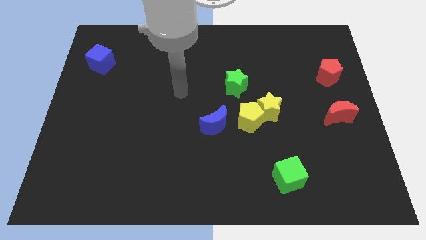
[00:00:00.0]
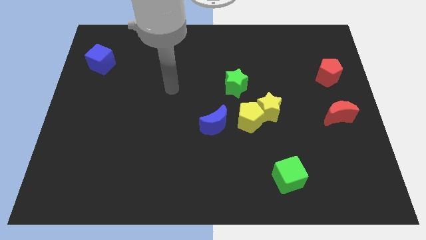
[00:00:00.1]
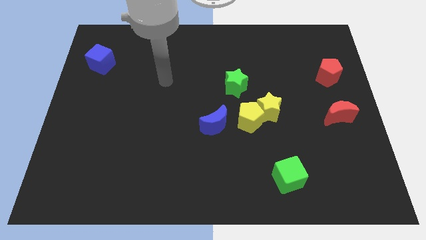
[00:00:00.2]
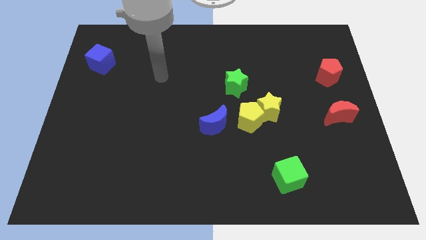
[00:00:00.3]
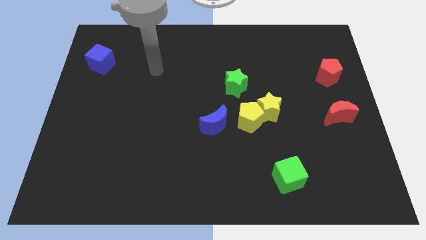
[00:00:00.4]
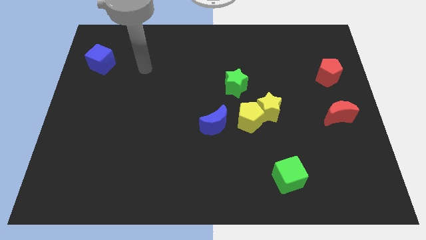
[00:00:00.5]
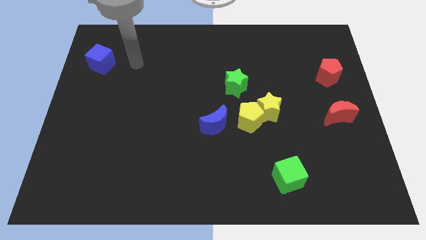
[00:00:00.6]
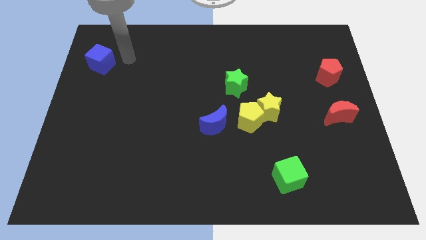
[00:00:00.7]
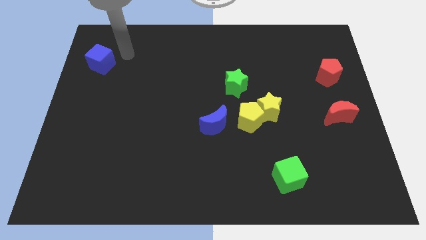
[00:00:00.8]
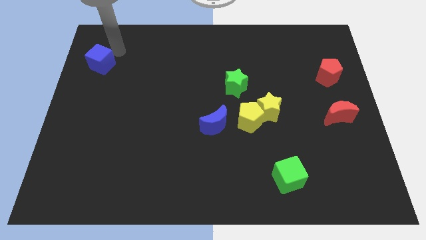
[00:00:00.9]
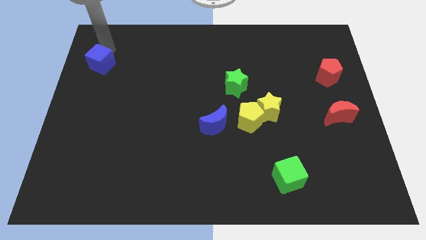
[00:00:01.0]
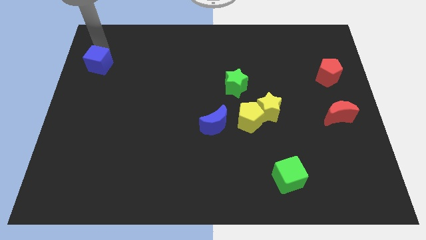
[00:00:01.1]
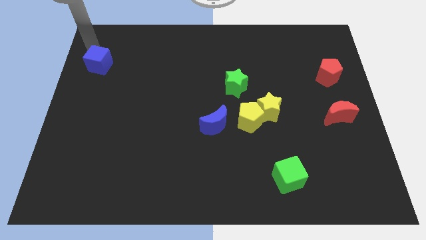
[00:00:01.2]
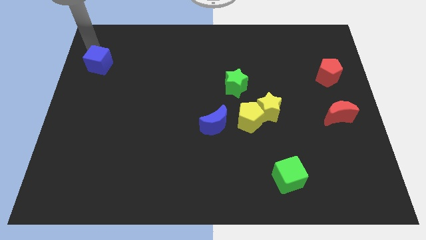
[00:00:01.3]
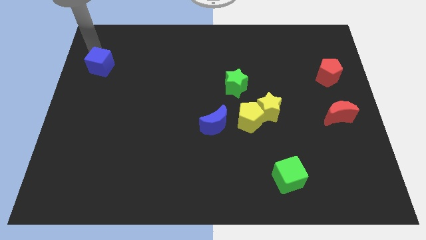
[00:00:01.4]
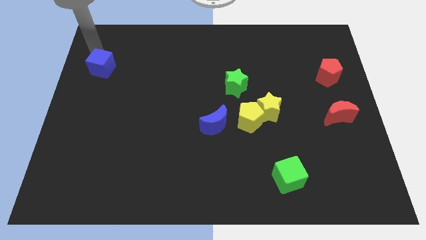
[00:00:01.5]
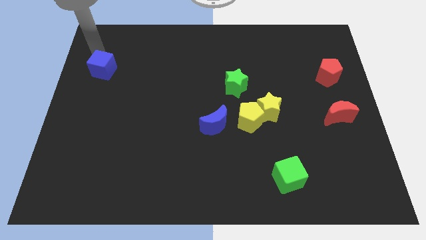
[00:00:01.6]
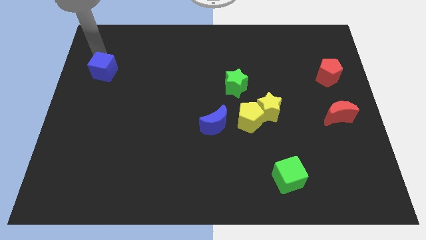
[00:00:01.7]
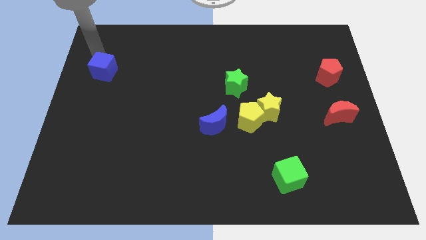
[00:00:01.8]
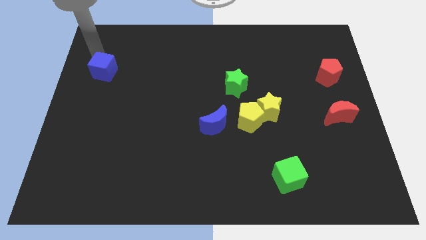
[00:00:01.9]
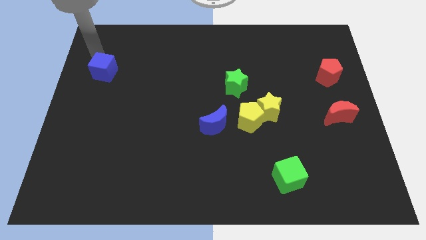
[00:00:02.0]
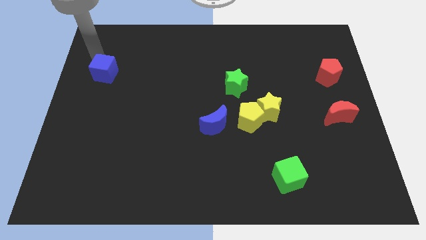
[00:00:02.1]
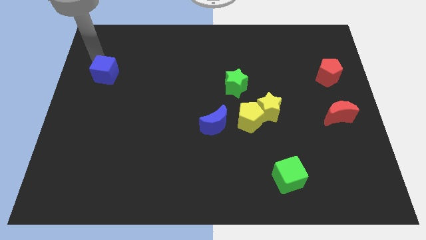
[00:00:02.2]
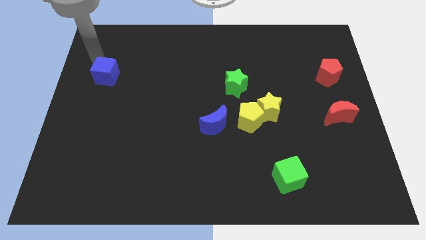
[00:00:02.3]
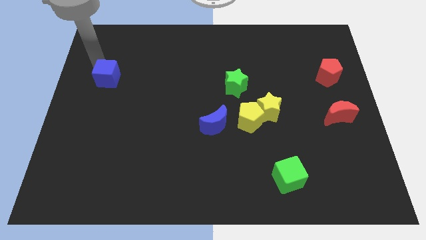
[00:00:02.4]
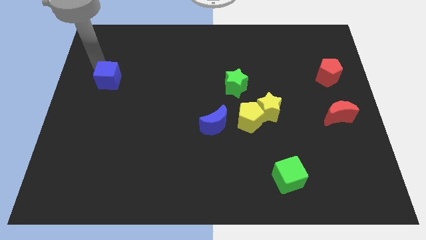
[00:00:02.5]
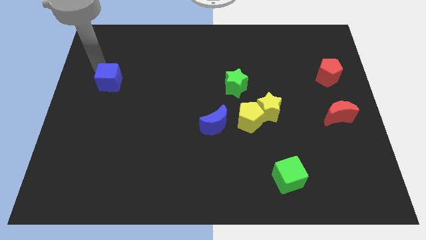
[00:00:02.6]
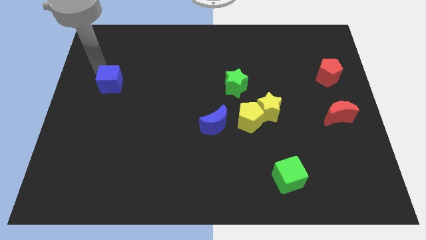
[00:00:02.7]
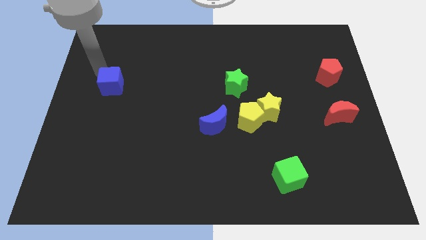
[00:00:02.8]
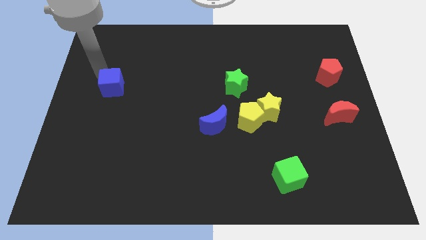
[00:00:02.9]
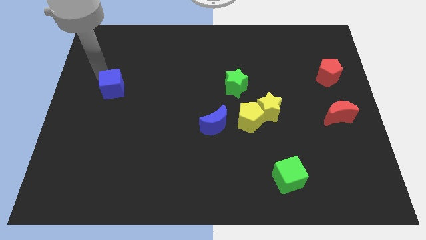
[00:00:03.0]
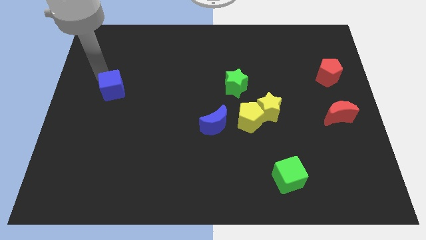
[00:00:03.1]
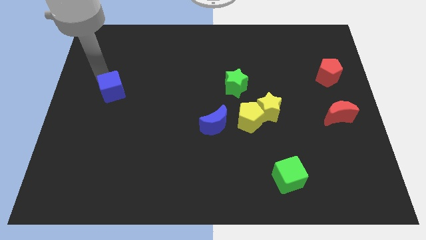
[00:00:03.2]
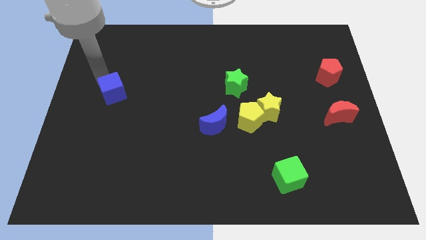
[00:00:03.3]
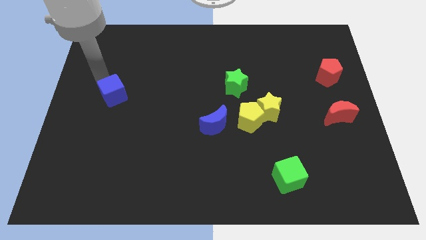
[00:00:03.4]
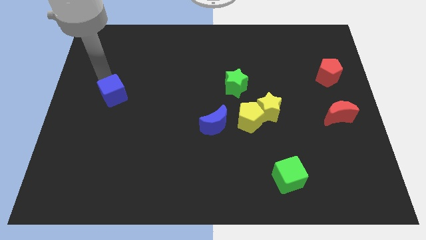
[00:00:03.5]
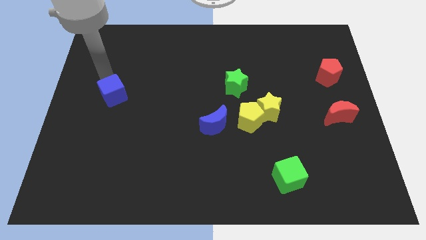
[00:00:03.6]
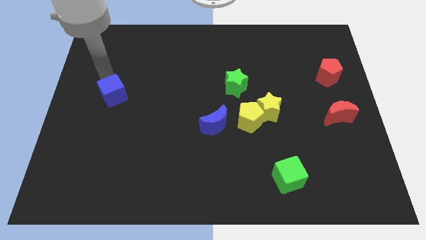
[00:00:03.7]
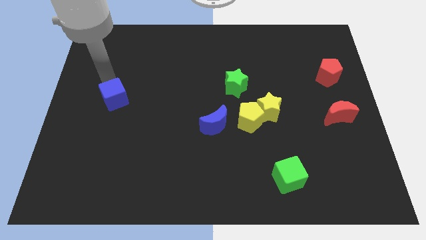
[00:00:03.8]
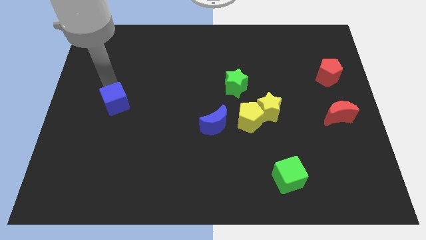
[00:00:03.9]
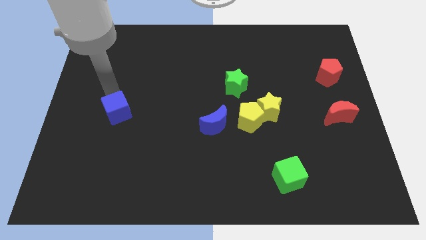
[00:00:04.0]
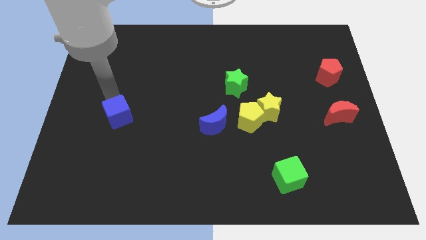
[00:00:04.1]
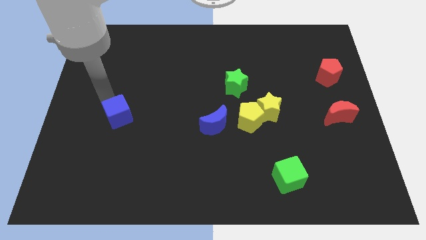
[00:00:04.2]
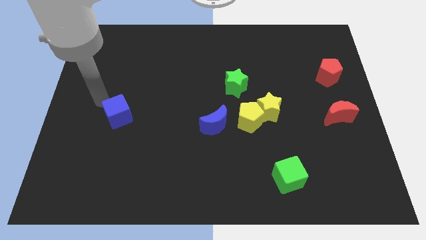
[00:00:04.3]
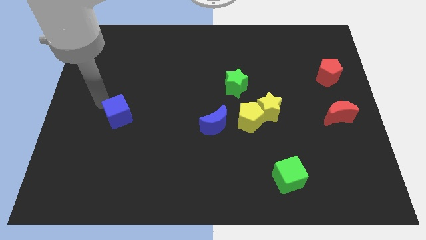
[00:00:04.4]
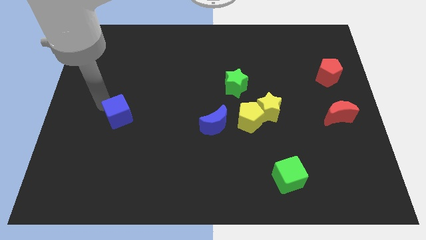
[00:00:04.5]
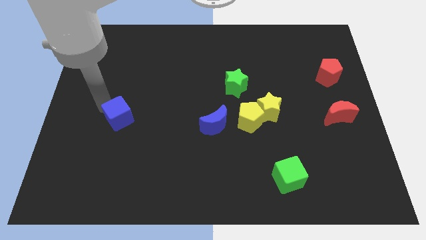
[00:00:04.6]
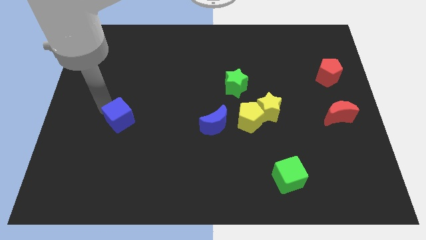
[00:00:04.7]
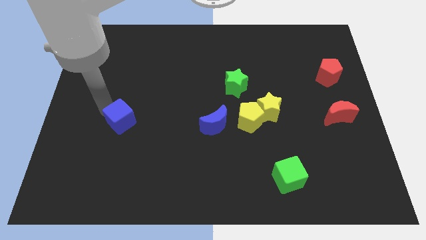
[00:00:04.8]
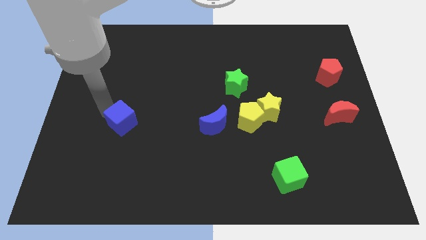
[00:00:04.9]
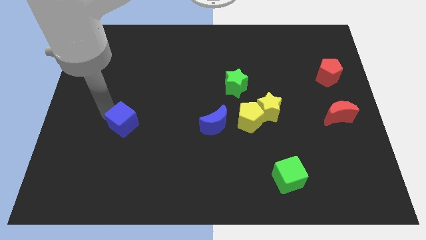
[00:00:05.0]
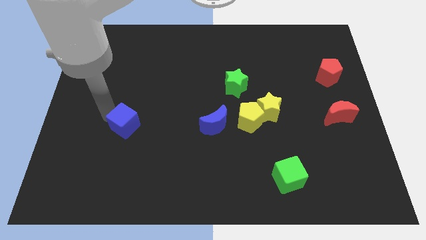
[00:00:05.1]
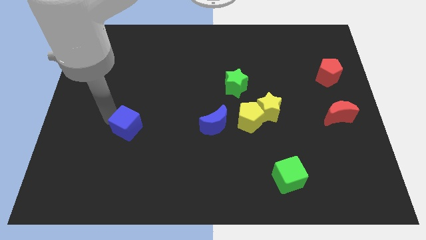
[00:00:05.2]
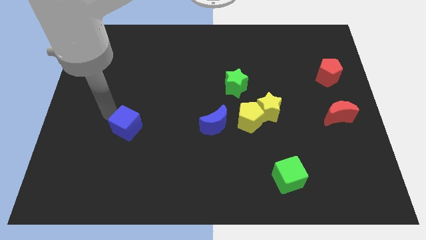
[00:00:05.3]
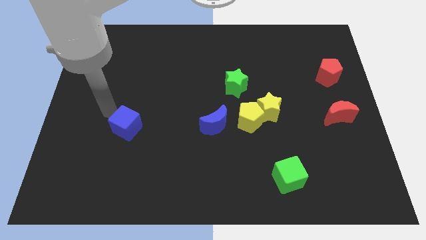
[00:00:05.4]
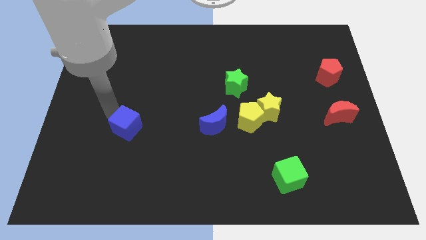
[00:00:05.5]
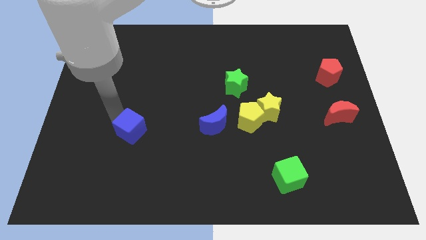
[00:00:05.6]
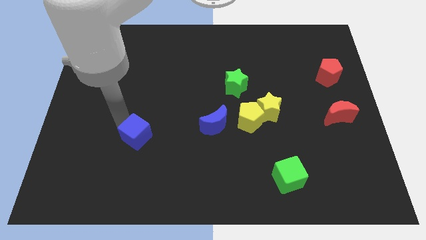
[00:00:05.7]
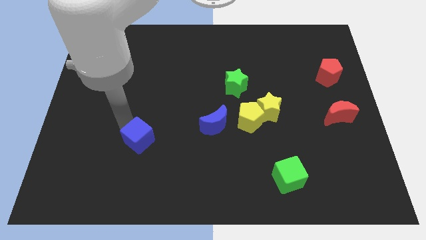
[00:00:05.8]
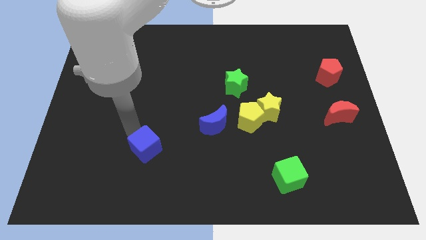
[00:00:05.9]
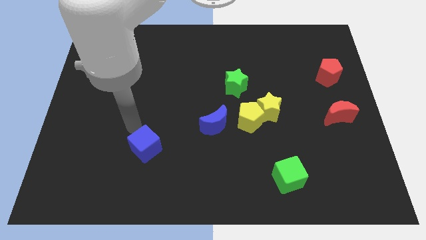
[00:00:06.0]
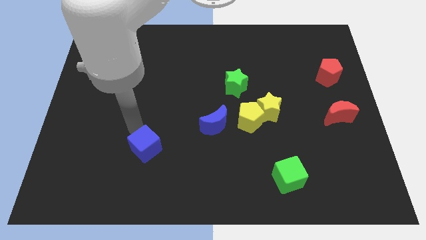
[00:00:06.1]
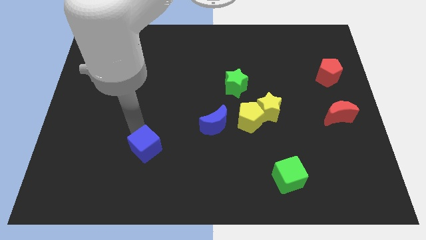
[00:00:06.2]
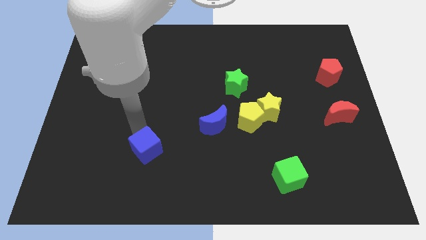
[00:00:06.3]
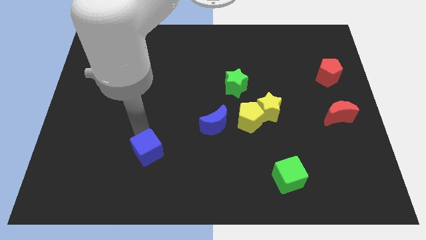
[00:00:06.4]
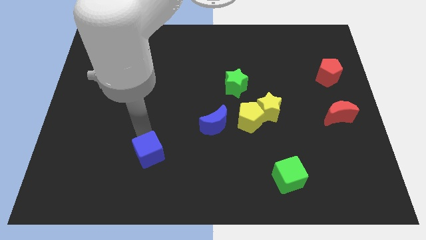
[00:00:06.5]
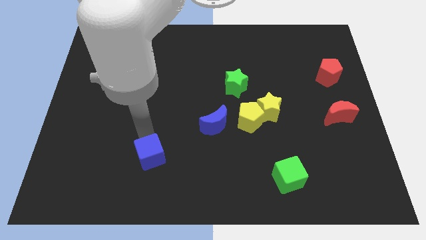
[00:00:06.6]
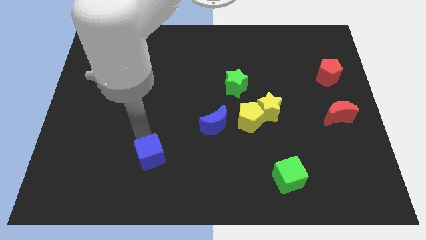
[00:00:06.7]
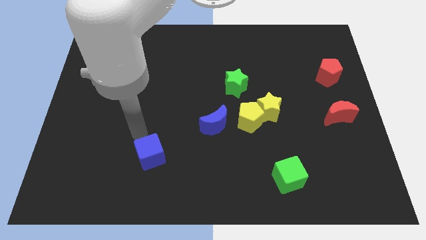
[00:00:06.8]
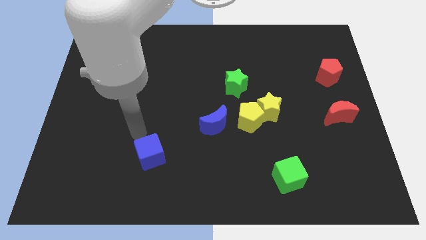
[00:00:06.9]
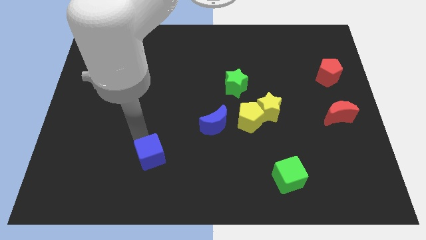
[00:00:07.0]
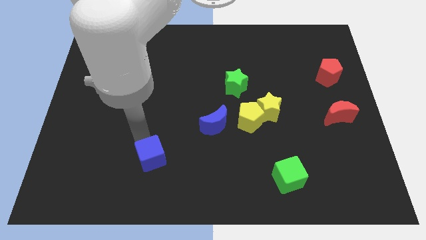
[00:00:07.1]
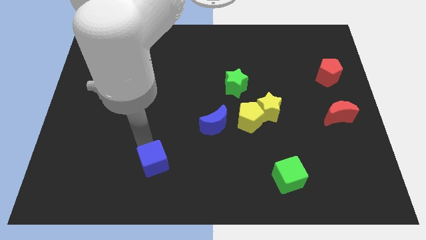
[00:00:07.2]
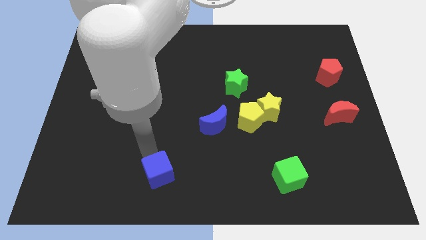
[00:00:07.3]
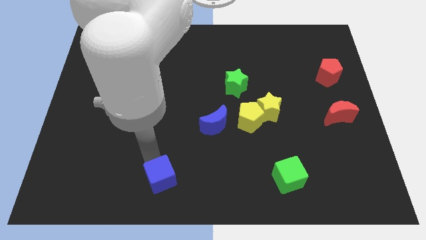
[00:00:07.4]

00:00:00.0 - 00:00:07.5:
push the blue cube to the bottom side
